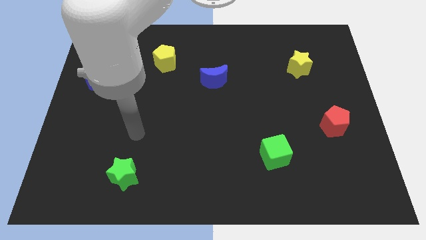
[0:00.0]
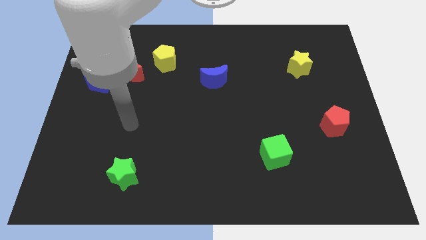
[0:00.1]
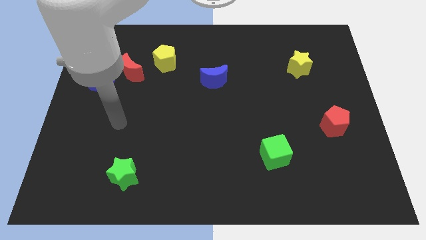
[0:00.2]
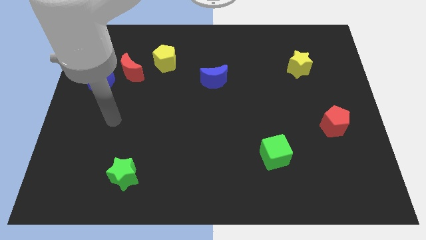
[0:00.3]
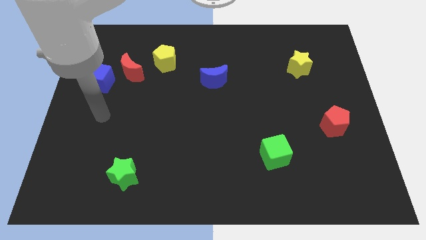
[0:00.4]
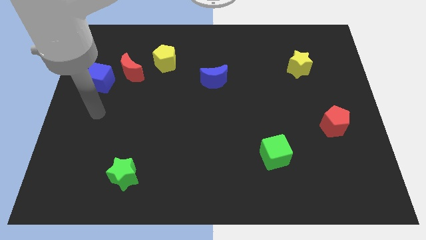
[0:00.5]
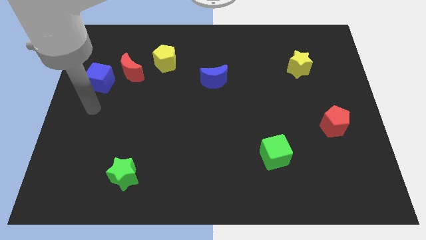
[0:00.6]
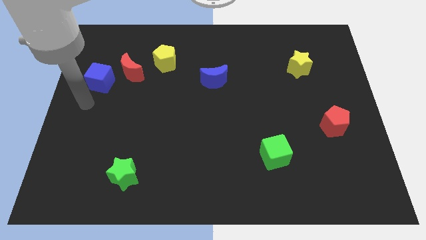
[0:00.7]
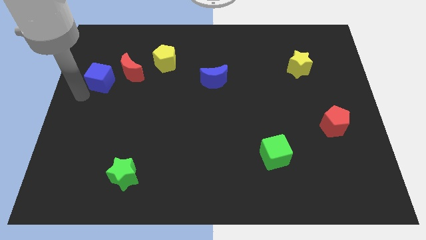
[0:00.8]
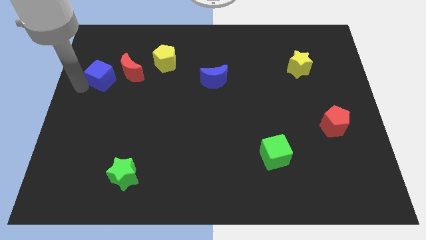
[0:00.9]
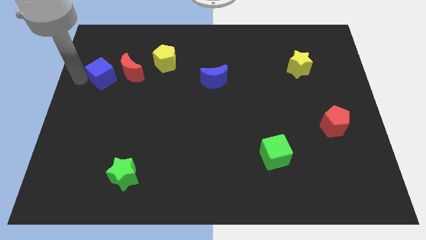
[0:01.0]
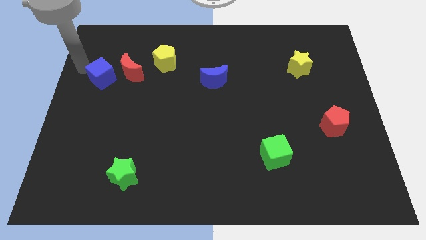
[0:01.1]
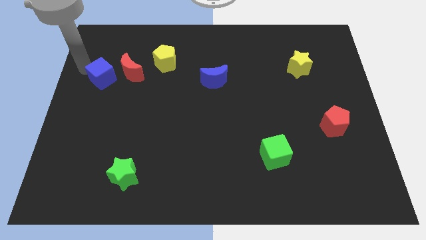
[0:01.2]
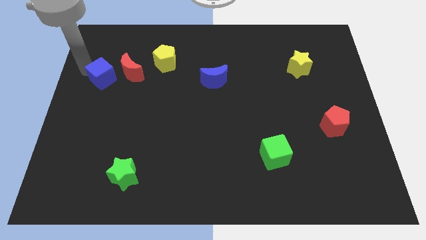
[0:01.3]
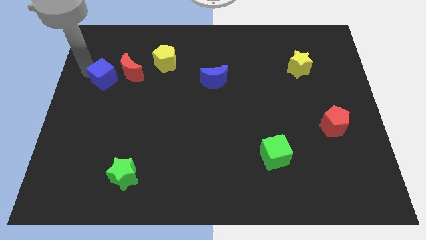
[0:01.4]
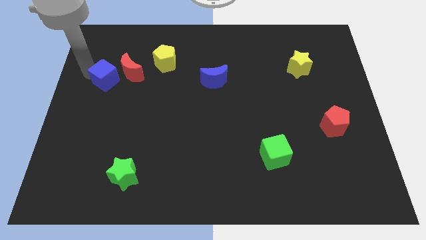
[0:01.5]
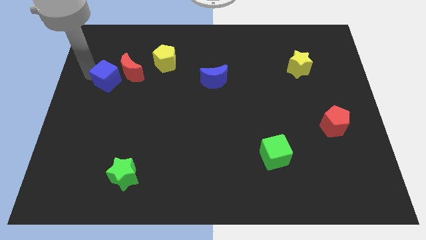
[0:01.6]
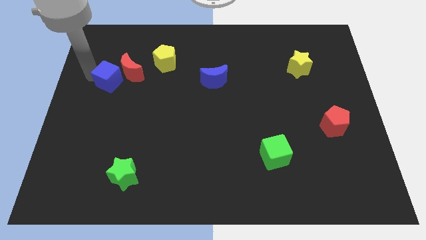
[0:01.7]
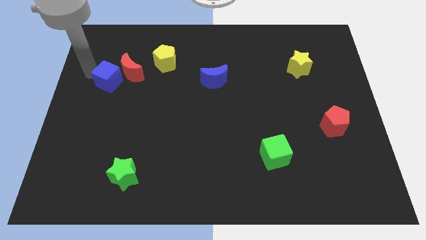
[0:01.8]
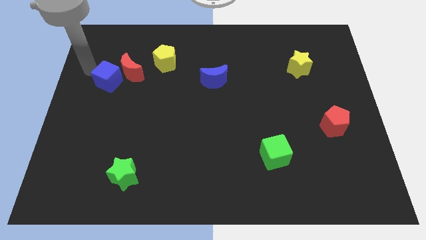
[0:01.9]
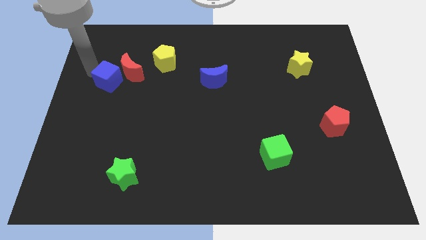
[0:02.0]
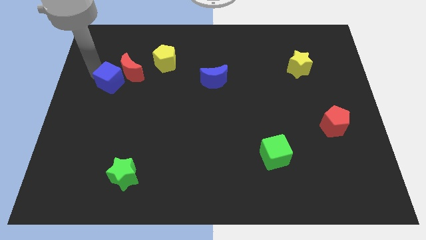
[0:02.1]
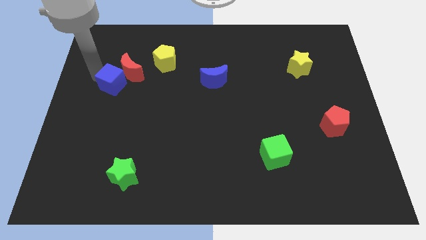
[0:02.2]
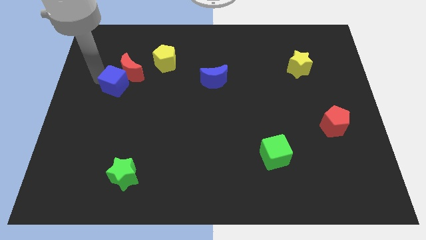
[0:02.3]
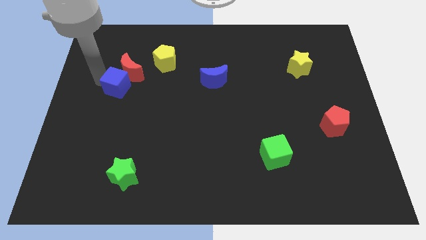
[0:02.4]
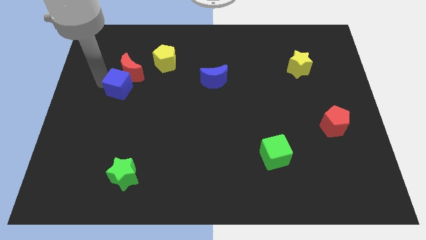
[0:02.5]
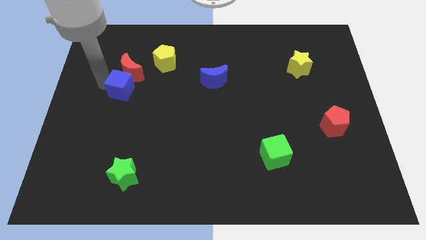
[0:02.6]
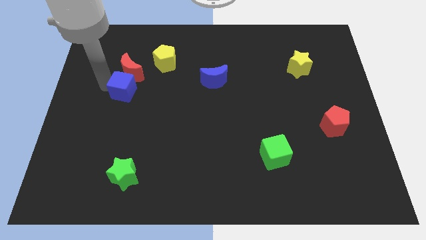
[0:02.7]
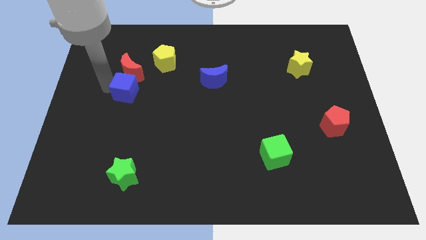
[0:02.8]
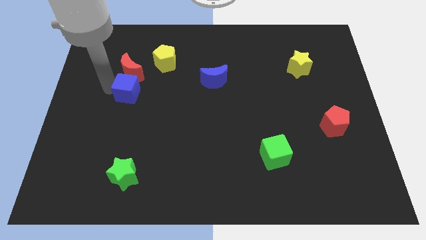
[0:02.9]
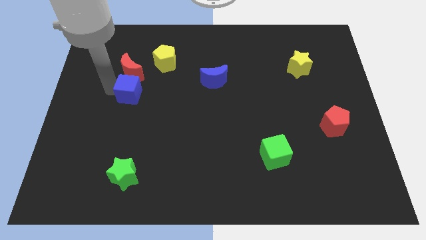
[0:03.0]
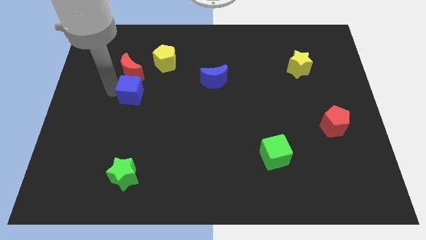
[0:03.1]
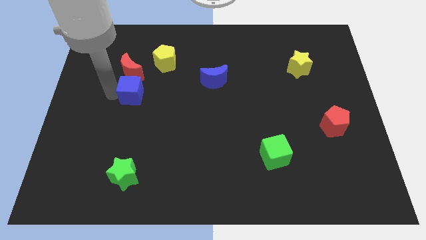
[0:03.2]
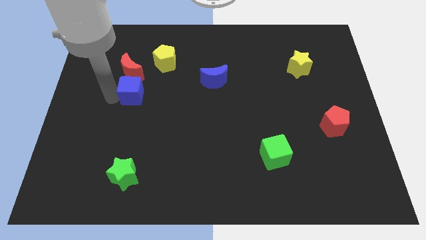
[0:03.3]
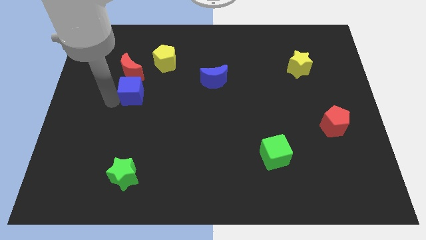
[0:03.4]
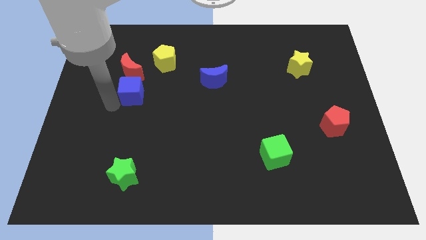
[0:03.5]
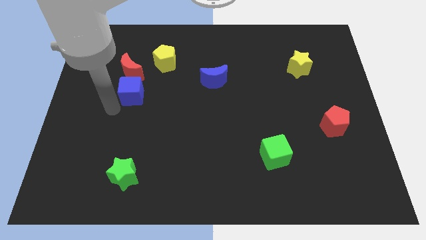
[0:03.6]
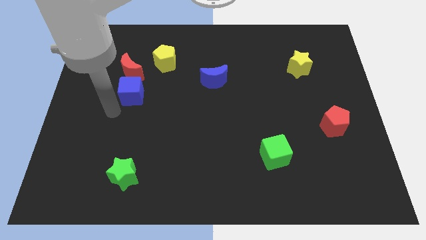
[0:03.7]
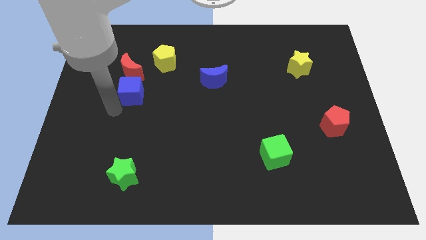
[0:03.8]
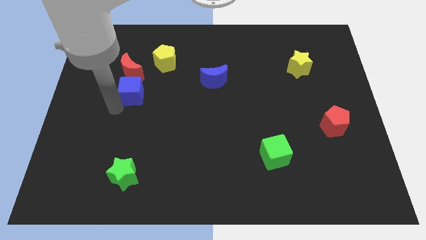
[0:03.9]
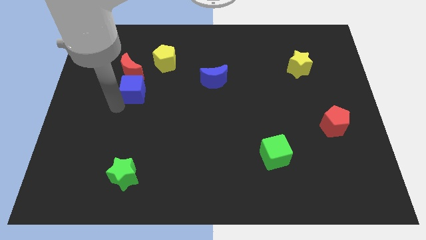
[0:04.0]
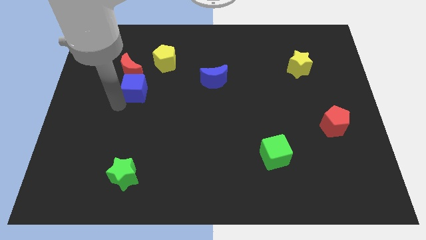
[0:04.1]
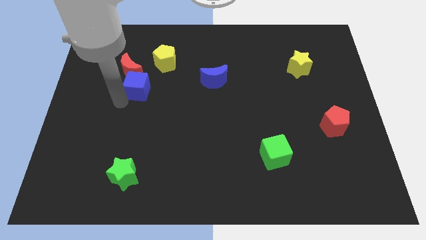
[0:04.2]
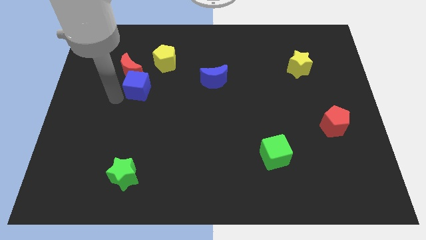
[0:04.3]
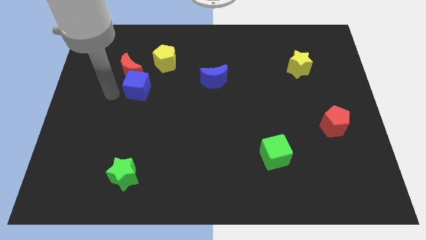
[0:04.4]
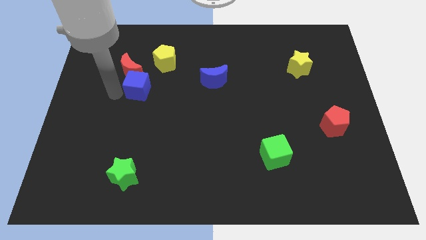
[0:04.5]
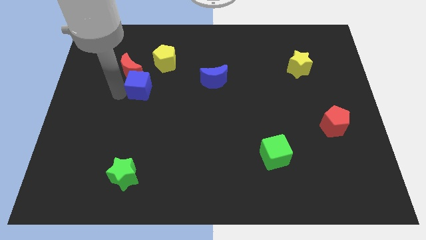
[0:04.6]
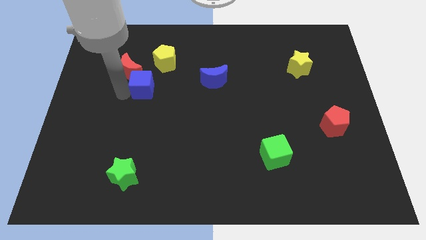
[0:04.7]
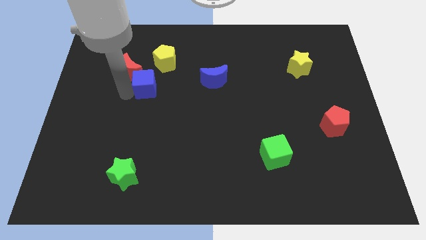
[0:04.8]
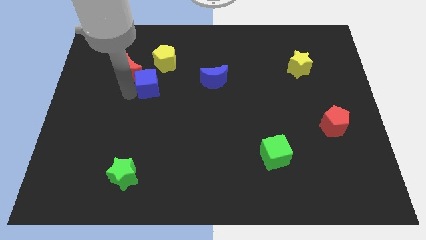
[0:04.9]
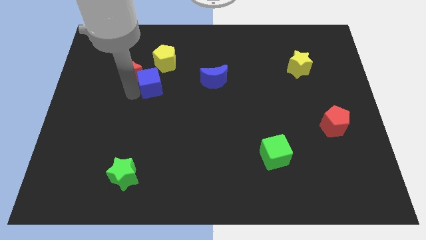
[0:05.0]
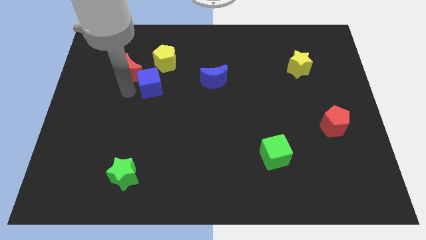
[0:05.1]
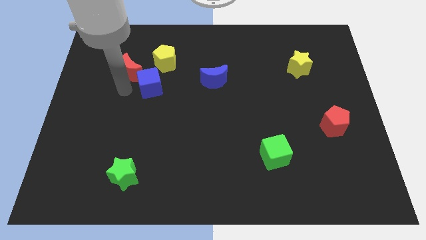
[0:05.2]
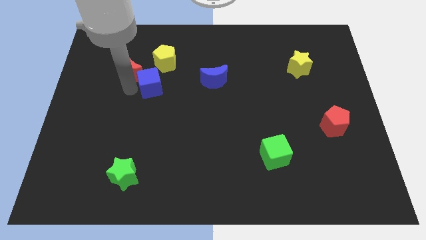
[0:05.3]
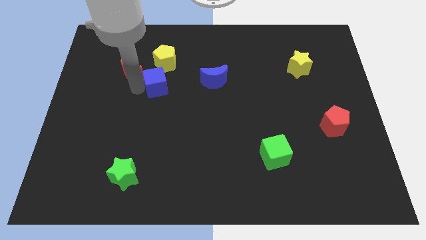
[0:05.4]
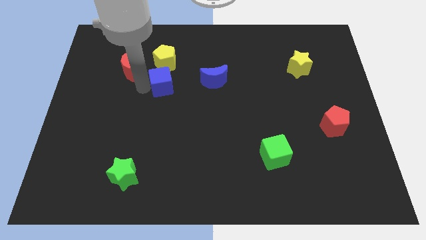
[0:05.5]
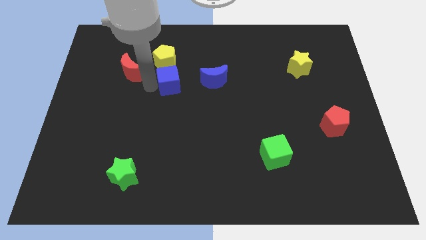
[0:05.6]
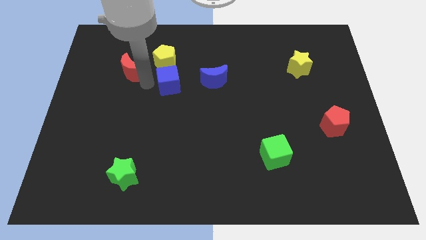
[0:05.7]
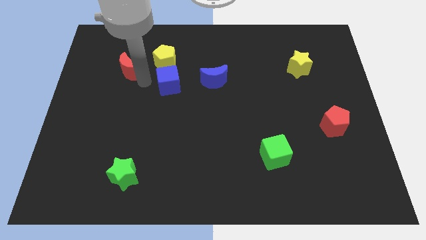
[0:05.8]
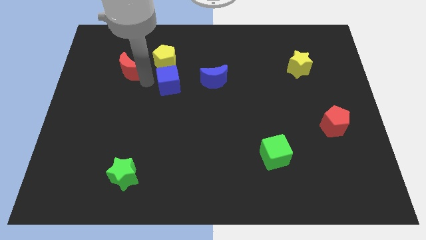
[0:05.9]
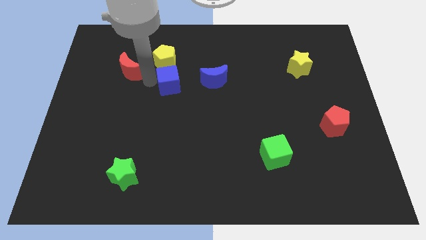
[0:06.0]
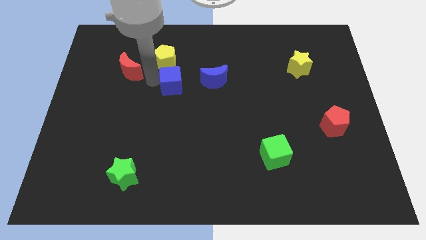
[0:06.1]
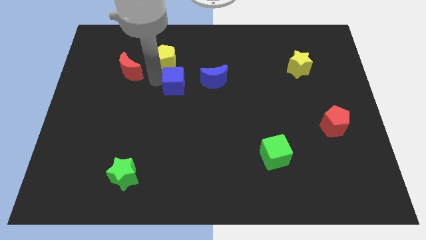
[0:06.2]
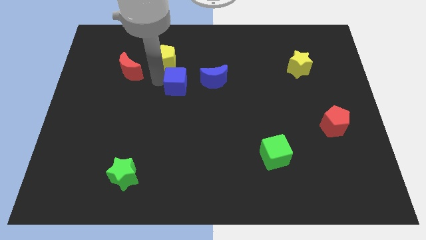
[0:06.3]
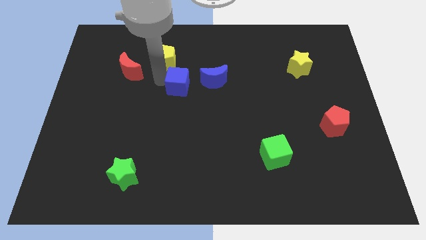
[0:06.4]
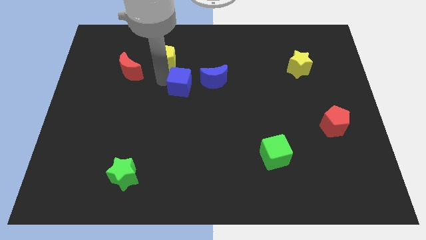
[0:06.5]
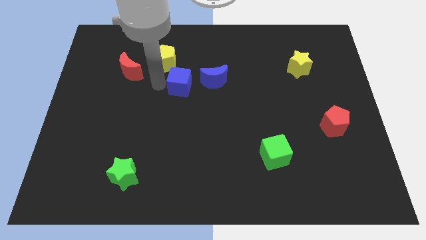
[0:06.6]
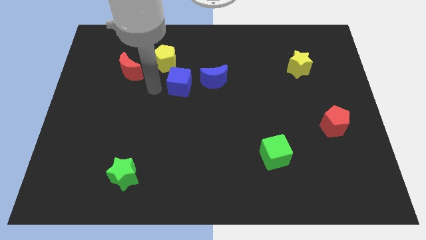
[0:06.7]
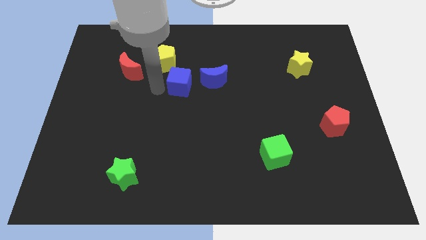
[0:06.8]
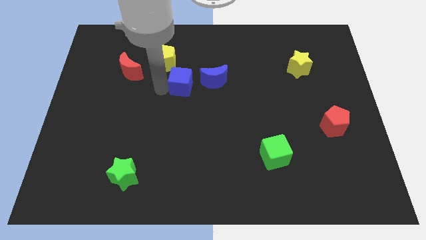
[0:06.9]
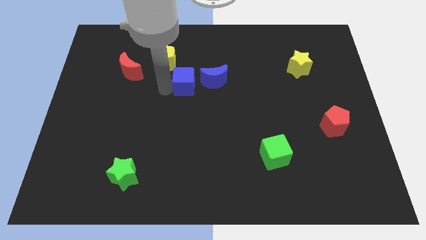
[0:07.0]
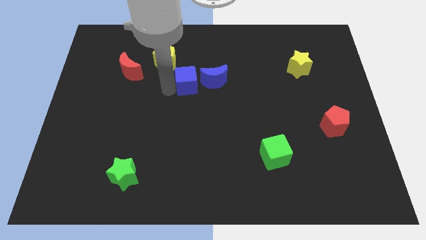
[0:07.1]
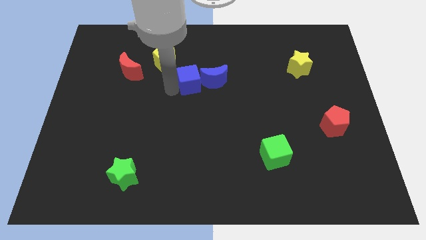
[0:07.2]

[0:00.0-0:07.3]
put the blue cube to the blue moon
